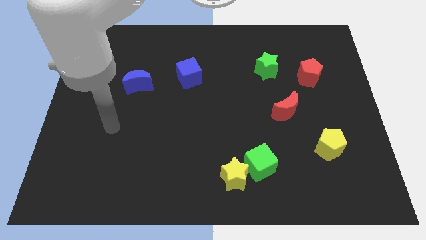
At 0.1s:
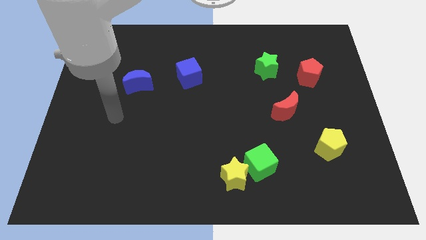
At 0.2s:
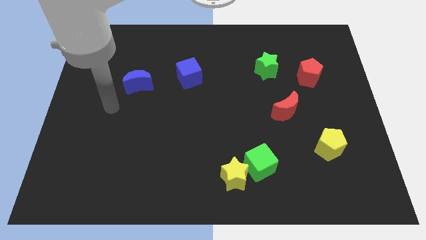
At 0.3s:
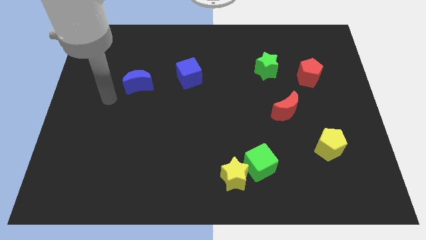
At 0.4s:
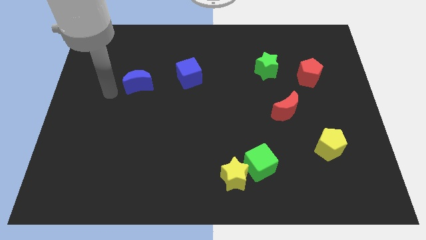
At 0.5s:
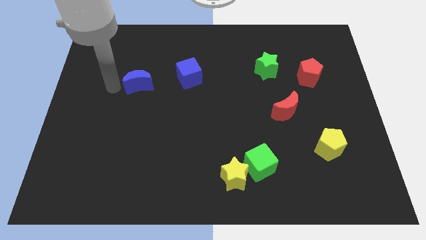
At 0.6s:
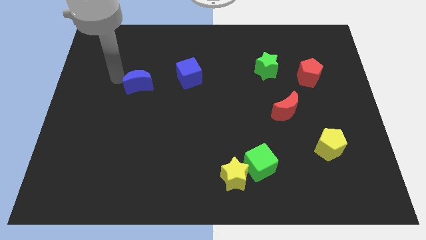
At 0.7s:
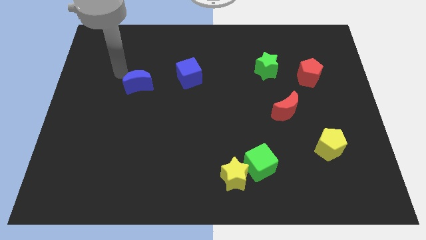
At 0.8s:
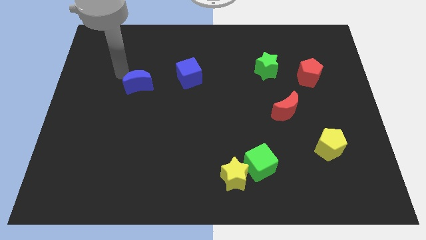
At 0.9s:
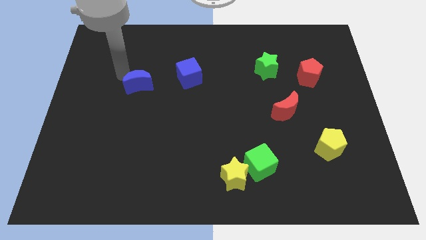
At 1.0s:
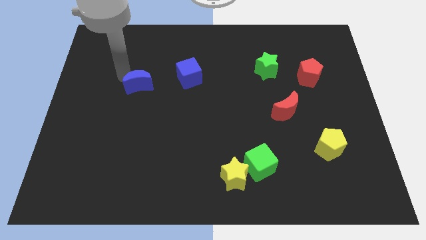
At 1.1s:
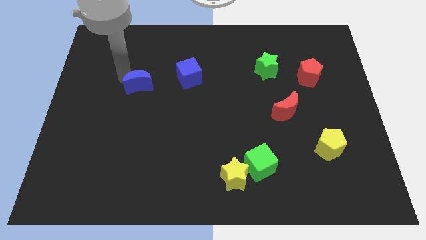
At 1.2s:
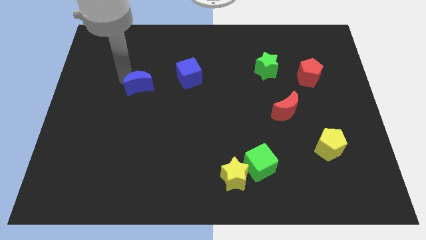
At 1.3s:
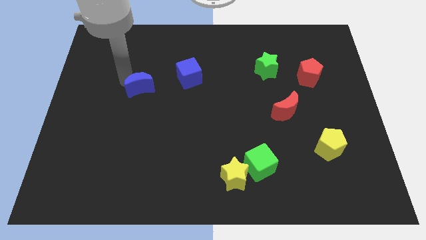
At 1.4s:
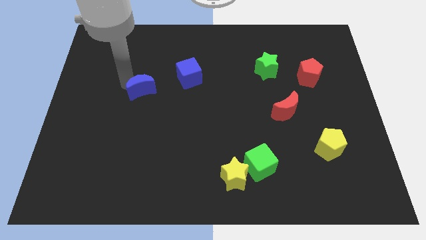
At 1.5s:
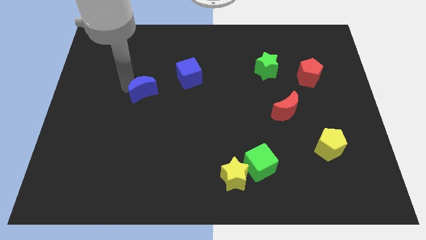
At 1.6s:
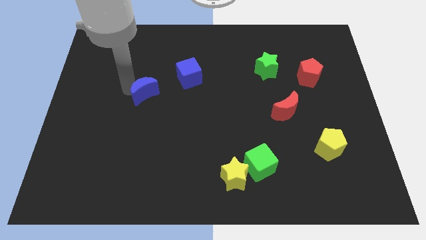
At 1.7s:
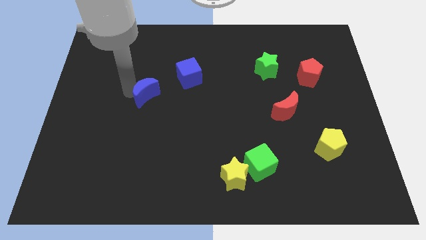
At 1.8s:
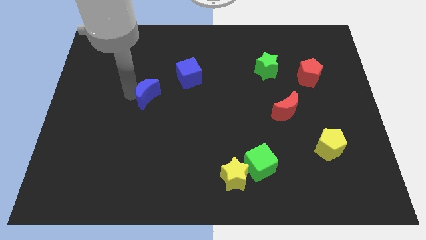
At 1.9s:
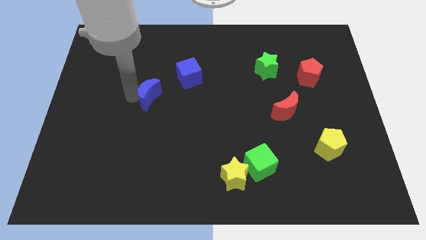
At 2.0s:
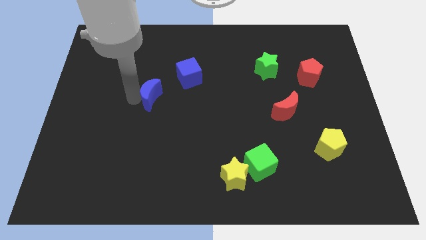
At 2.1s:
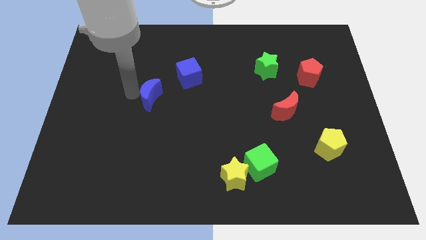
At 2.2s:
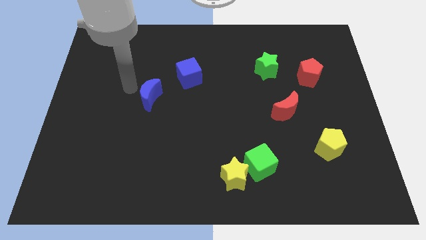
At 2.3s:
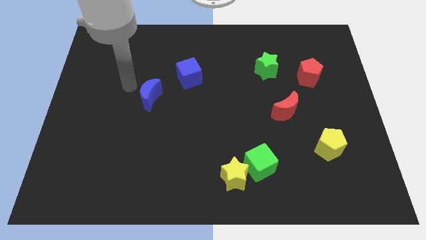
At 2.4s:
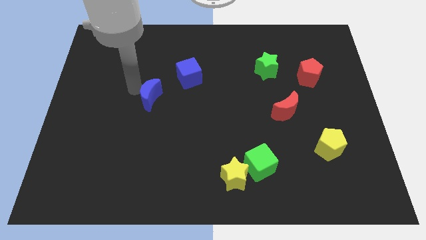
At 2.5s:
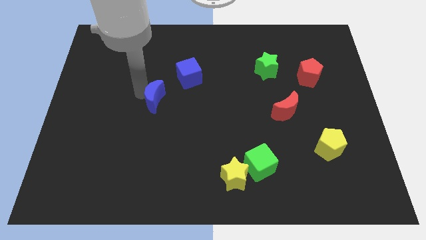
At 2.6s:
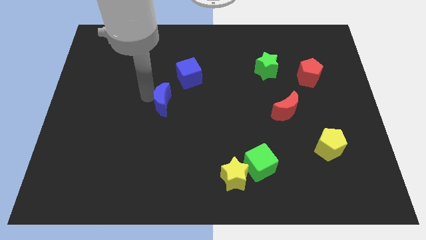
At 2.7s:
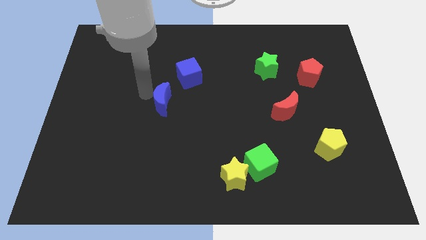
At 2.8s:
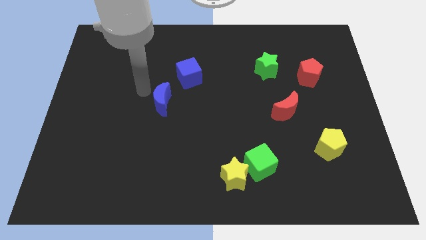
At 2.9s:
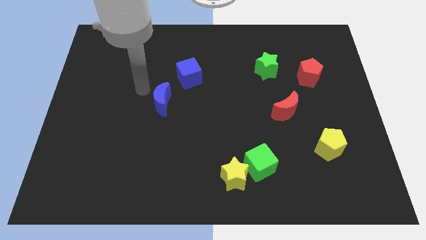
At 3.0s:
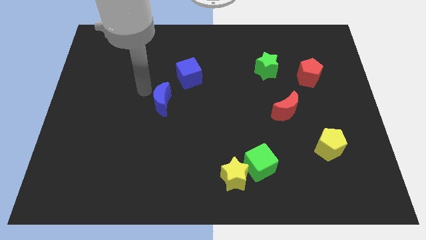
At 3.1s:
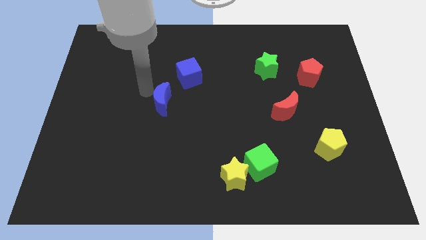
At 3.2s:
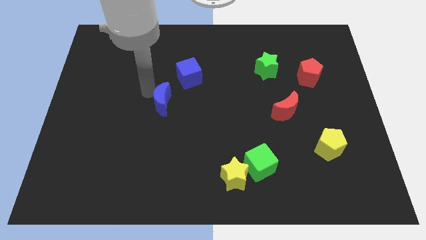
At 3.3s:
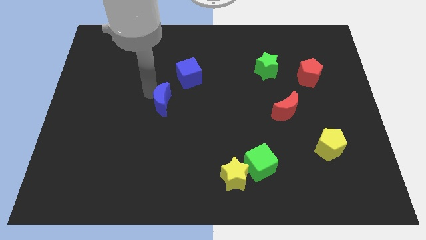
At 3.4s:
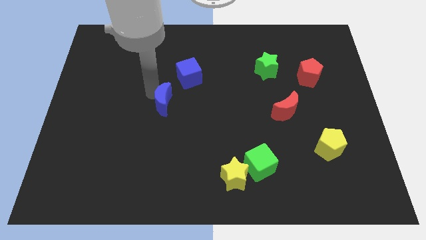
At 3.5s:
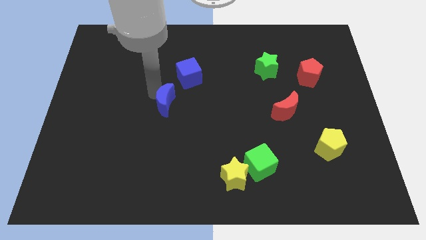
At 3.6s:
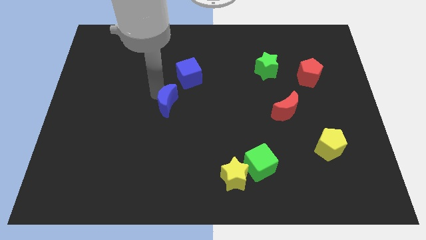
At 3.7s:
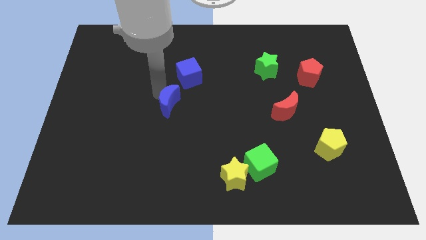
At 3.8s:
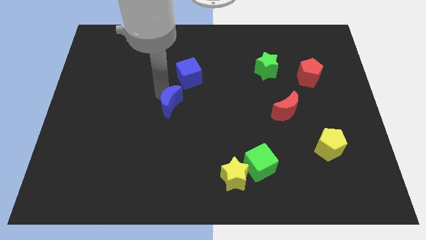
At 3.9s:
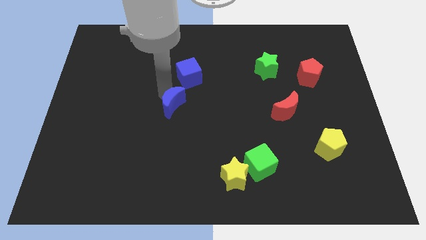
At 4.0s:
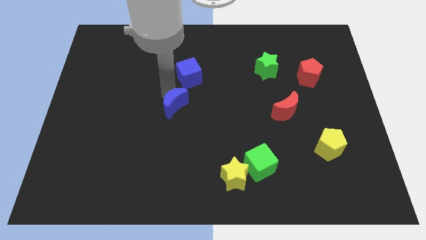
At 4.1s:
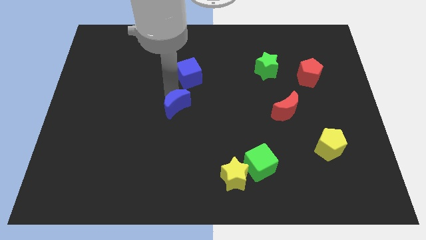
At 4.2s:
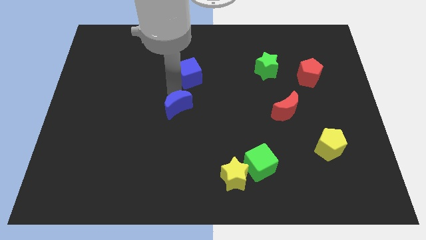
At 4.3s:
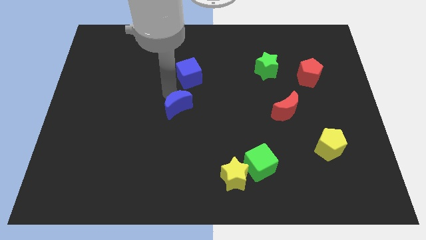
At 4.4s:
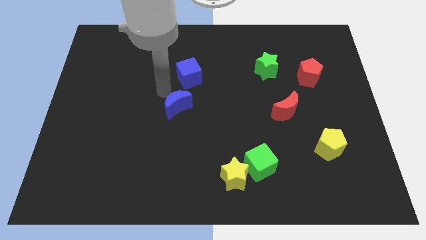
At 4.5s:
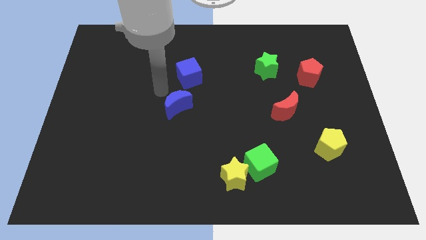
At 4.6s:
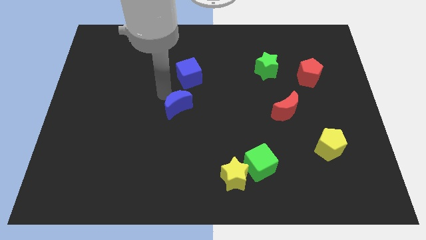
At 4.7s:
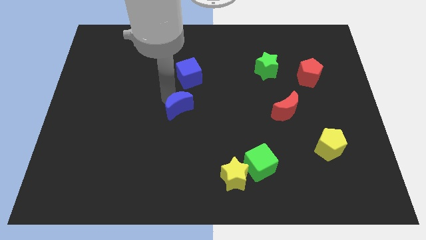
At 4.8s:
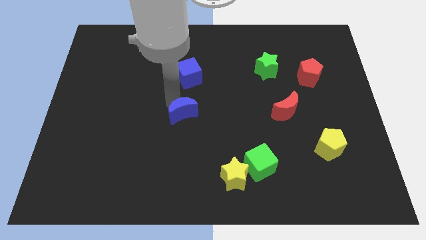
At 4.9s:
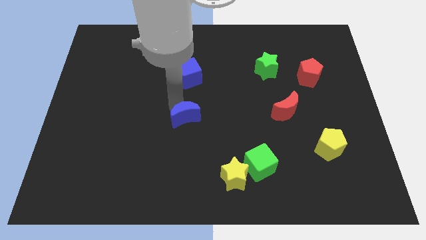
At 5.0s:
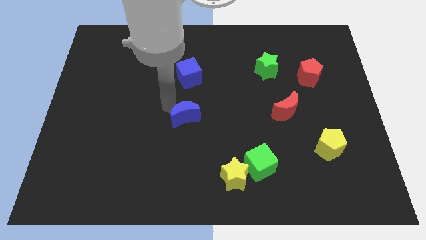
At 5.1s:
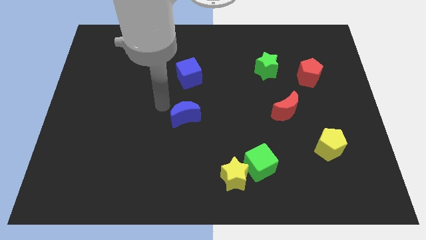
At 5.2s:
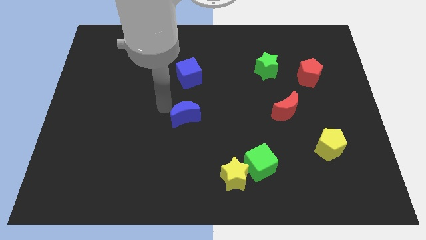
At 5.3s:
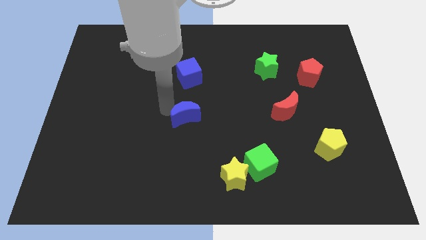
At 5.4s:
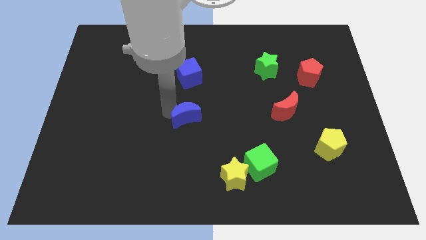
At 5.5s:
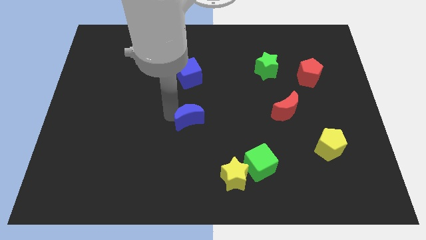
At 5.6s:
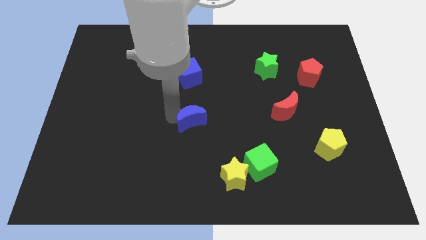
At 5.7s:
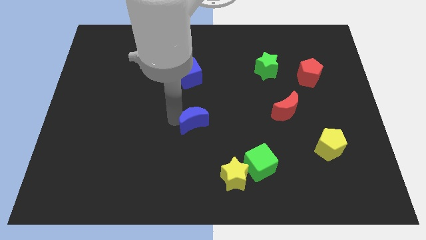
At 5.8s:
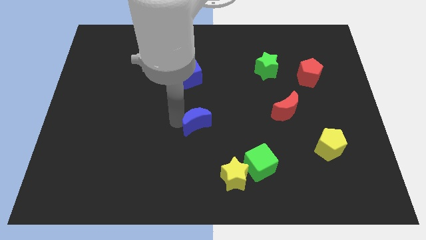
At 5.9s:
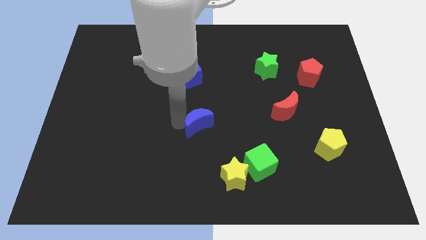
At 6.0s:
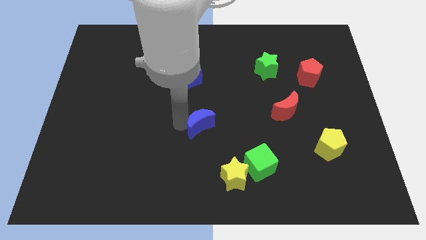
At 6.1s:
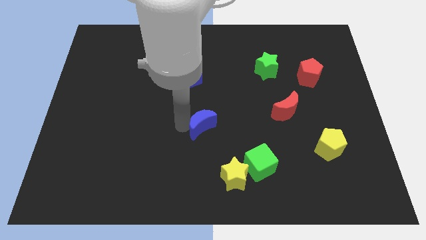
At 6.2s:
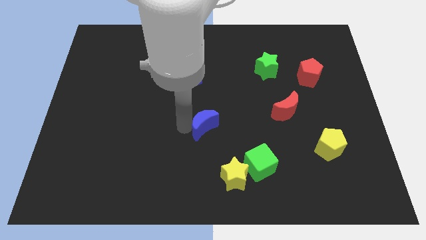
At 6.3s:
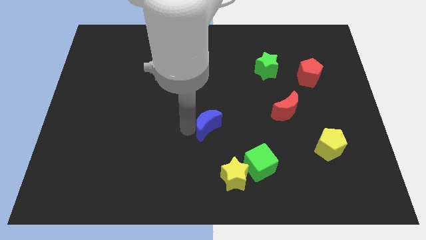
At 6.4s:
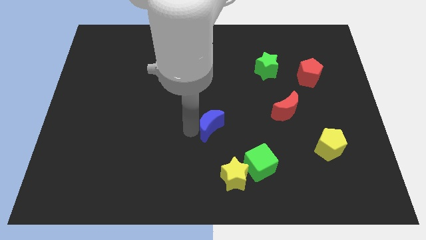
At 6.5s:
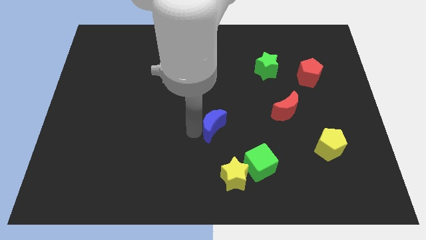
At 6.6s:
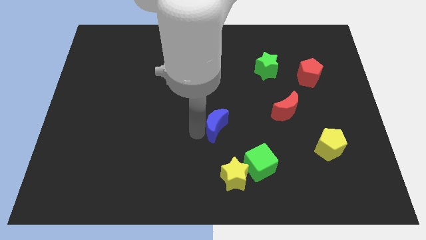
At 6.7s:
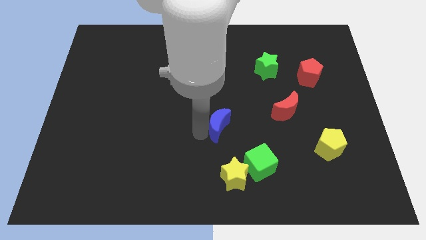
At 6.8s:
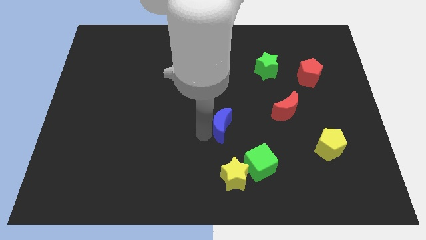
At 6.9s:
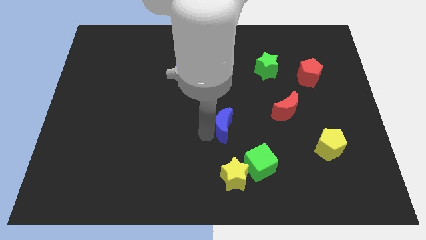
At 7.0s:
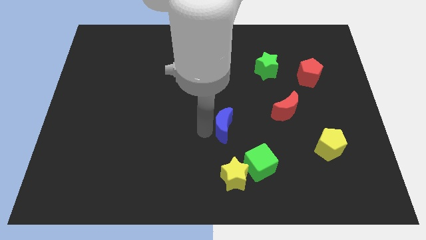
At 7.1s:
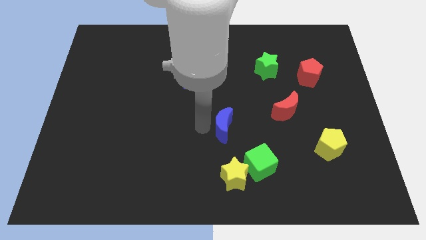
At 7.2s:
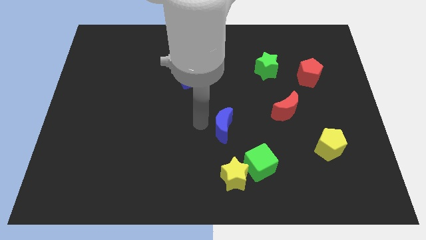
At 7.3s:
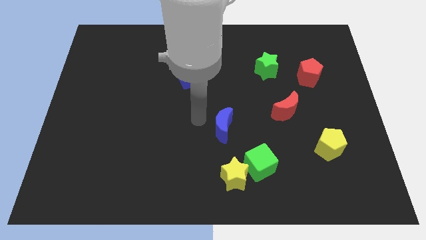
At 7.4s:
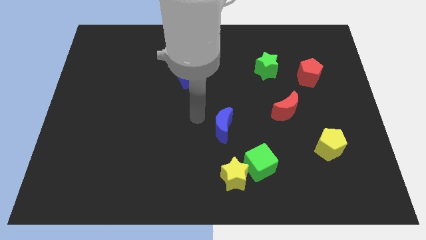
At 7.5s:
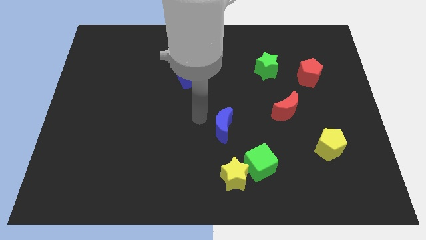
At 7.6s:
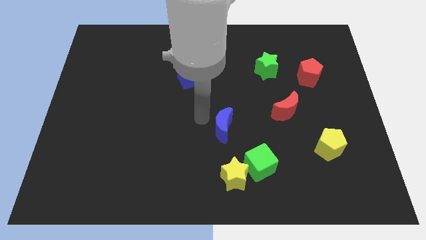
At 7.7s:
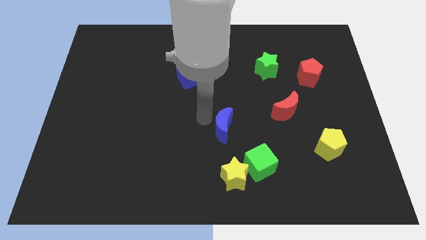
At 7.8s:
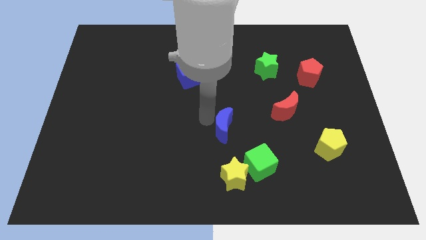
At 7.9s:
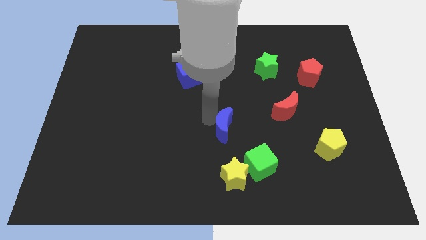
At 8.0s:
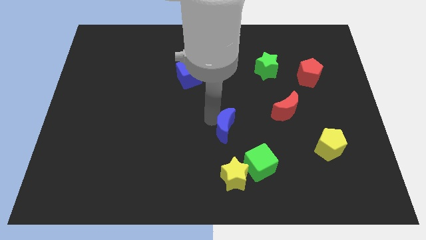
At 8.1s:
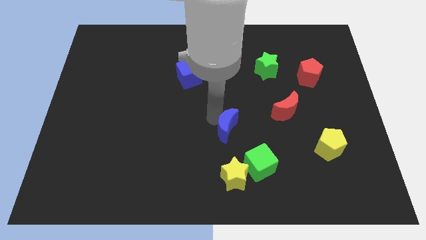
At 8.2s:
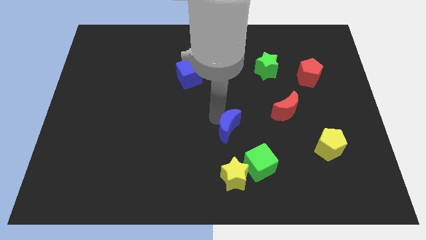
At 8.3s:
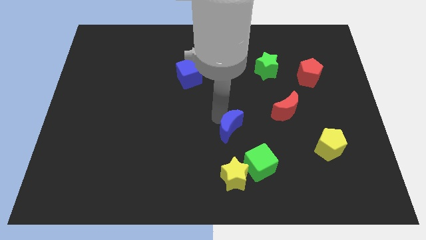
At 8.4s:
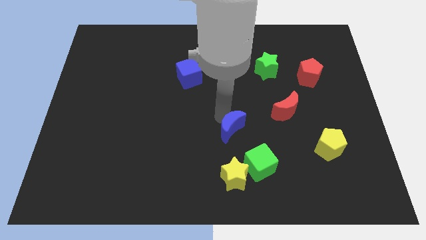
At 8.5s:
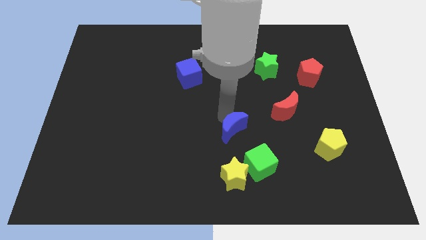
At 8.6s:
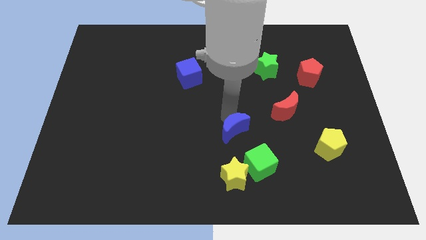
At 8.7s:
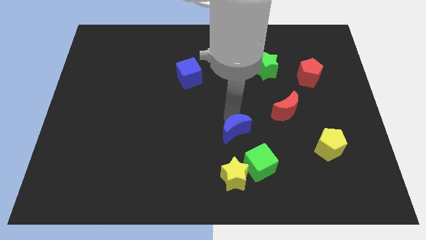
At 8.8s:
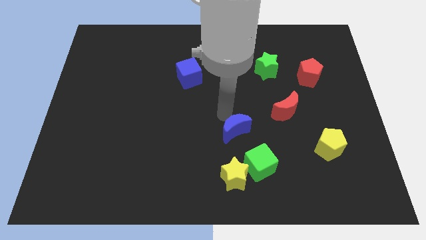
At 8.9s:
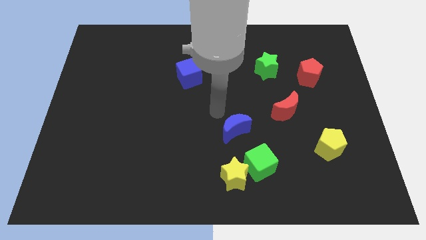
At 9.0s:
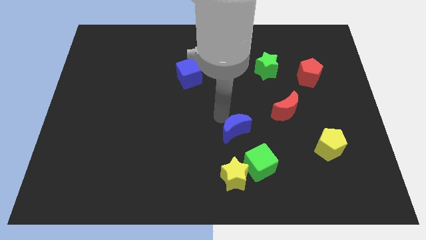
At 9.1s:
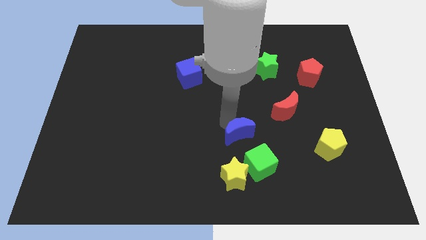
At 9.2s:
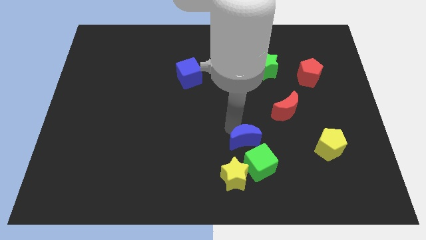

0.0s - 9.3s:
slide the blue moon to the top right side of the yellow star
